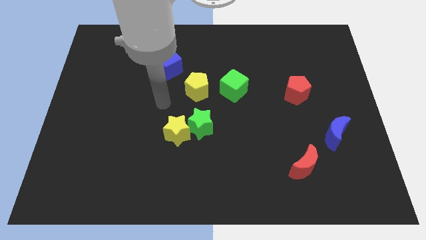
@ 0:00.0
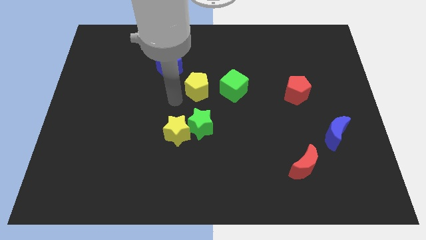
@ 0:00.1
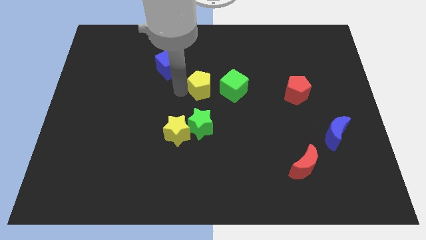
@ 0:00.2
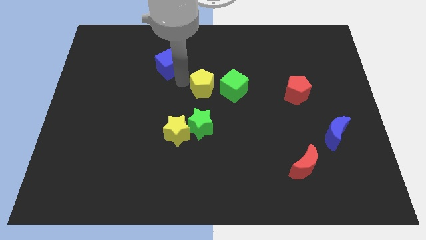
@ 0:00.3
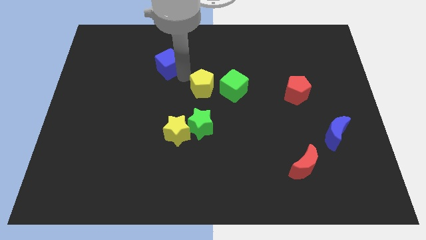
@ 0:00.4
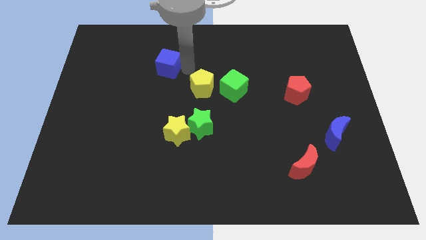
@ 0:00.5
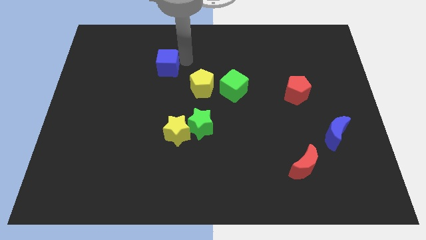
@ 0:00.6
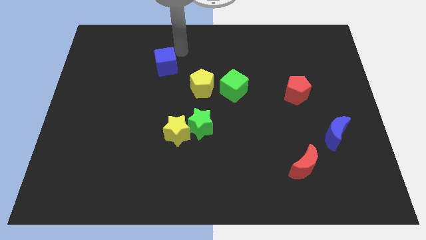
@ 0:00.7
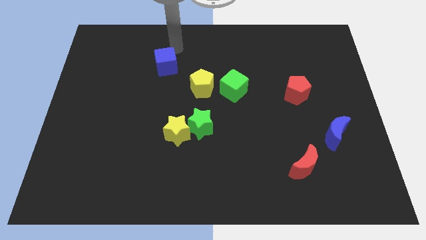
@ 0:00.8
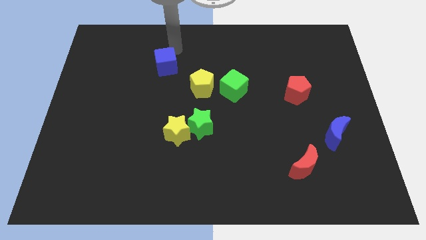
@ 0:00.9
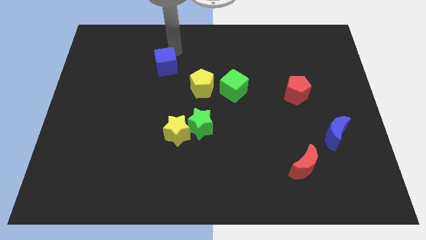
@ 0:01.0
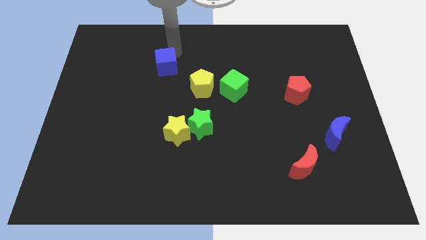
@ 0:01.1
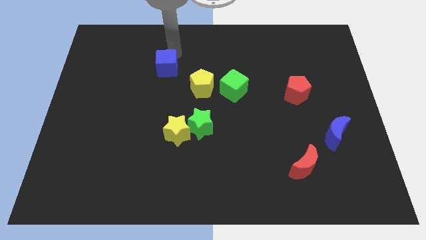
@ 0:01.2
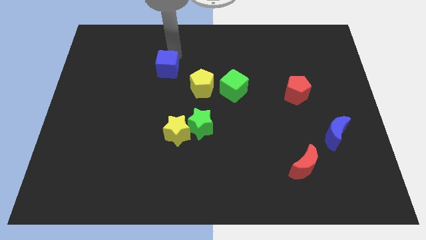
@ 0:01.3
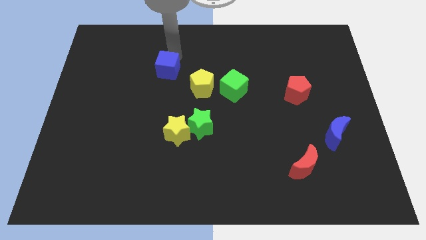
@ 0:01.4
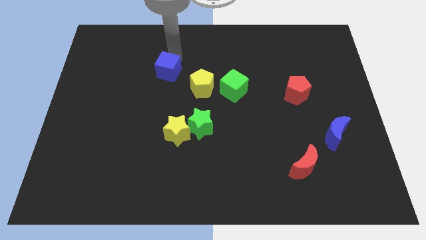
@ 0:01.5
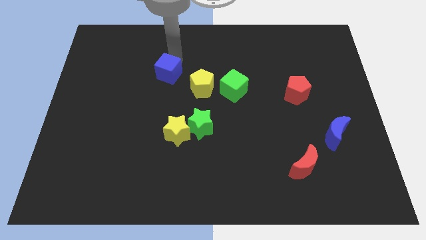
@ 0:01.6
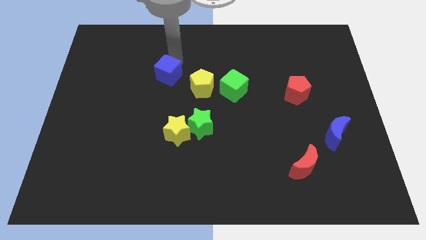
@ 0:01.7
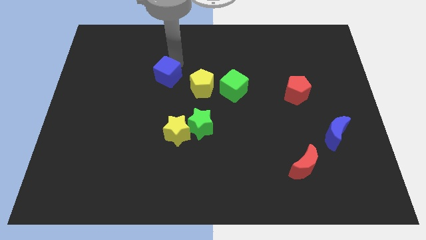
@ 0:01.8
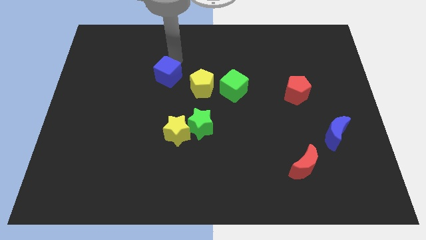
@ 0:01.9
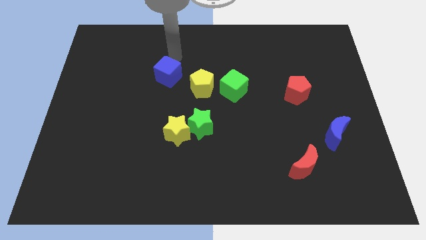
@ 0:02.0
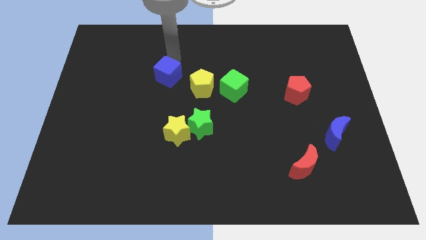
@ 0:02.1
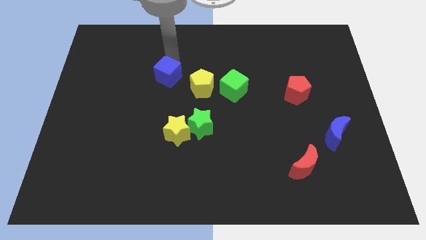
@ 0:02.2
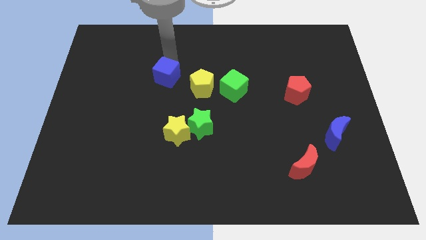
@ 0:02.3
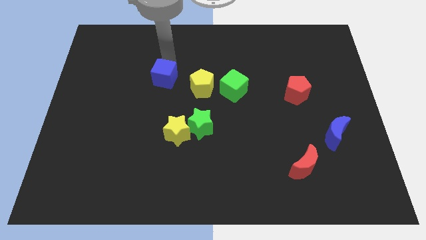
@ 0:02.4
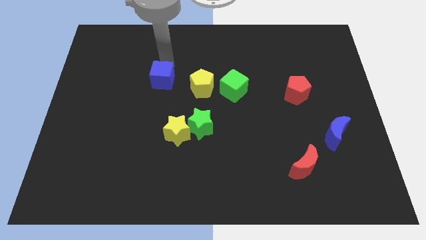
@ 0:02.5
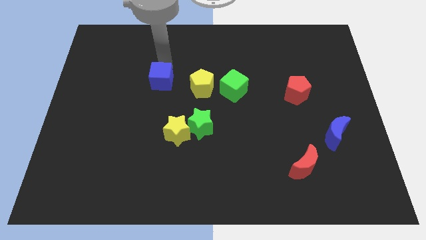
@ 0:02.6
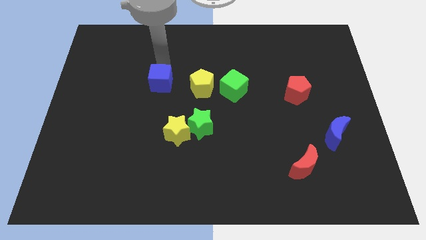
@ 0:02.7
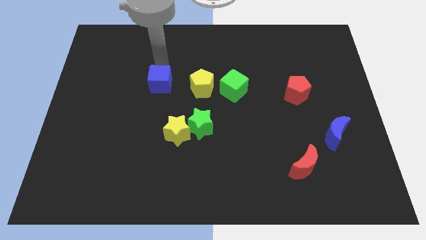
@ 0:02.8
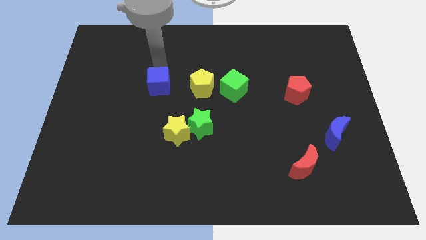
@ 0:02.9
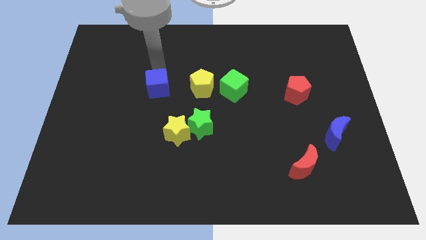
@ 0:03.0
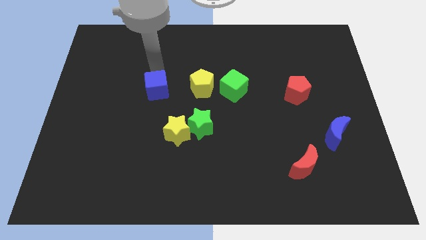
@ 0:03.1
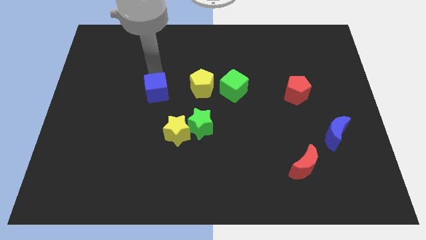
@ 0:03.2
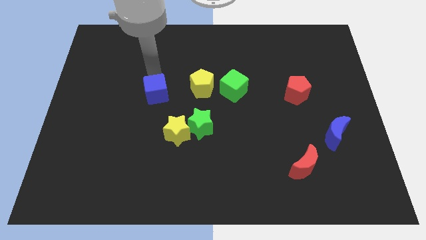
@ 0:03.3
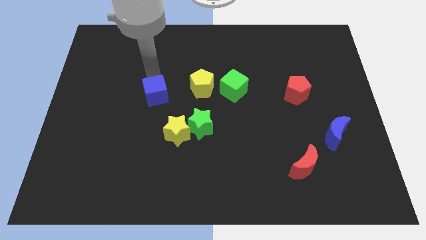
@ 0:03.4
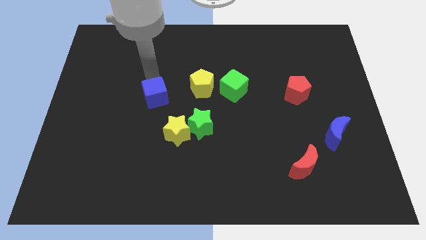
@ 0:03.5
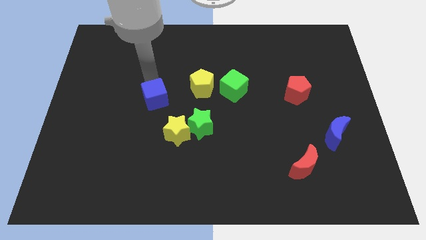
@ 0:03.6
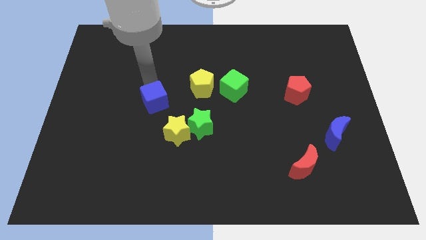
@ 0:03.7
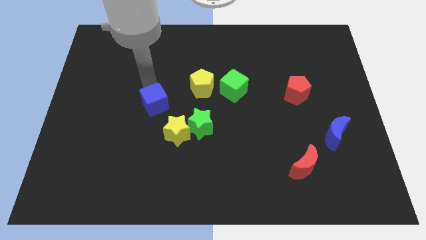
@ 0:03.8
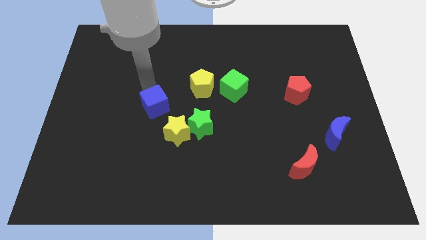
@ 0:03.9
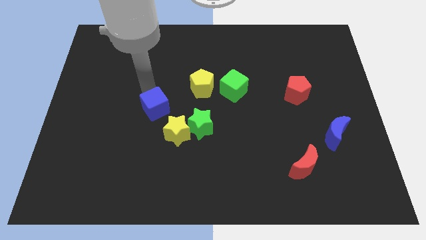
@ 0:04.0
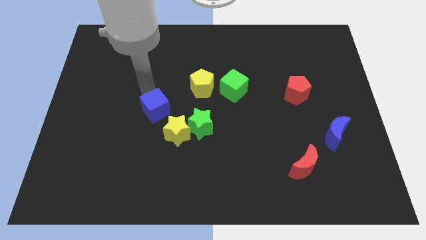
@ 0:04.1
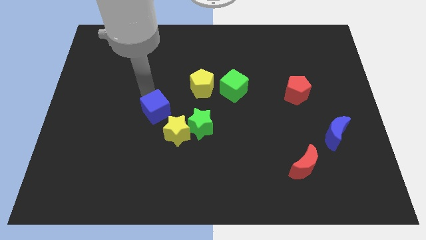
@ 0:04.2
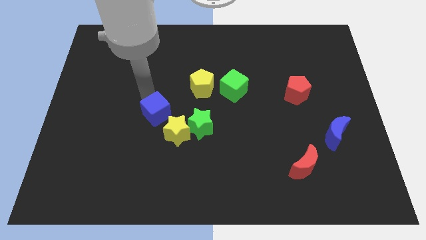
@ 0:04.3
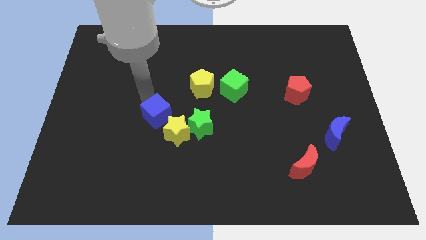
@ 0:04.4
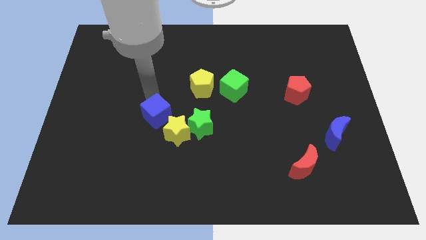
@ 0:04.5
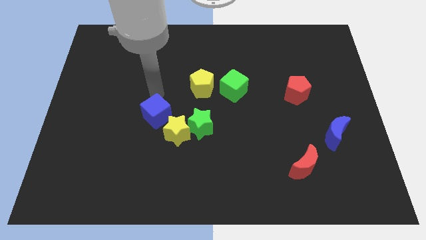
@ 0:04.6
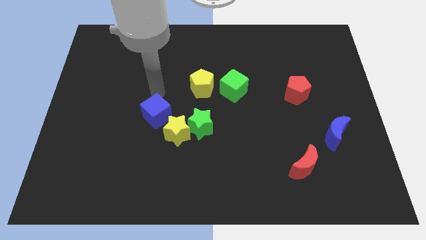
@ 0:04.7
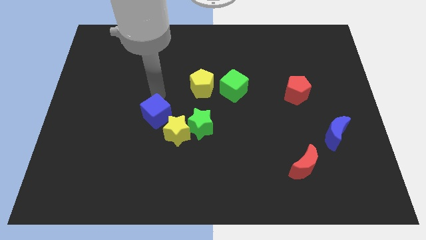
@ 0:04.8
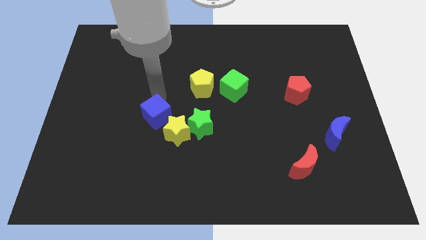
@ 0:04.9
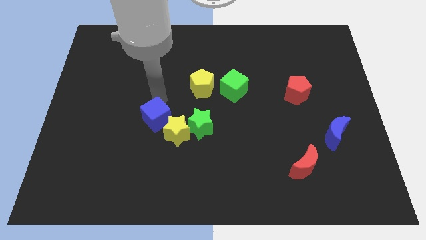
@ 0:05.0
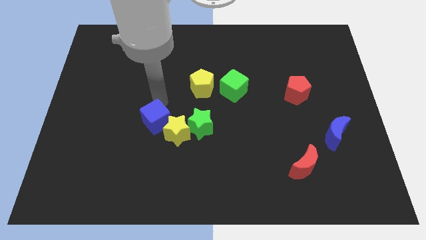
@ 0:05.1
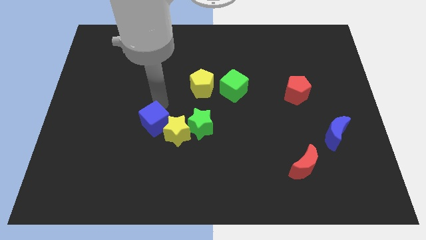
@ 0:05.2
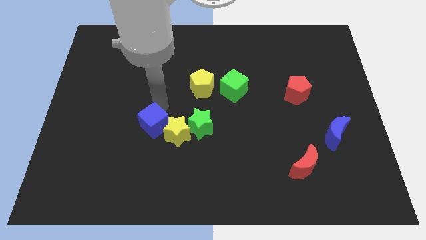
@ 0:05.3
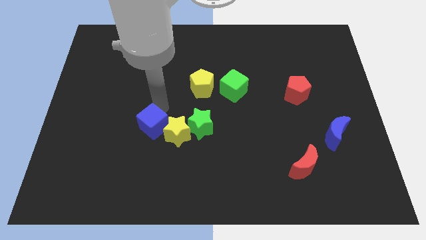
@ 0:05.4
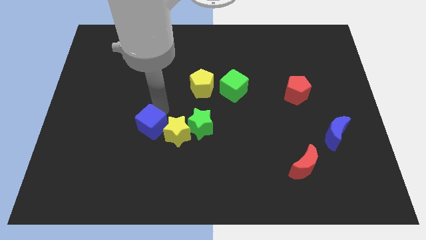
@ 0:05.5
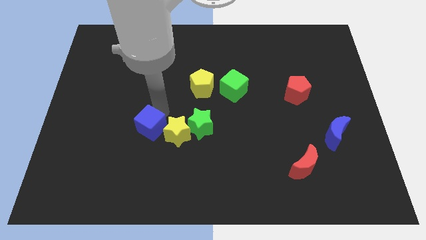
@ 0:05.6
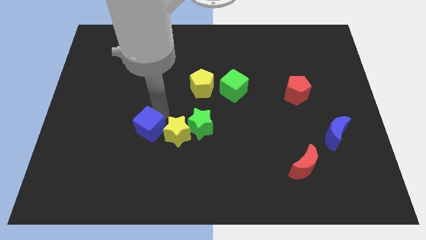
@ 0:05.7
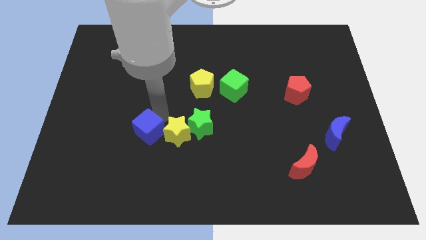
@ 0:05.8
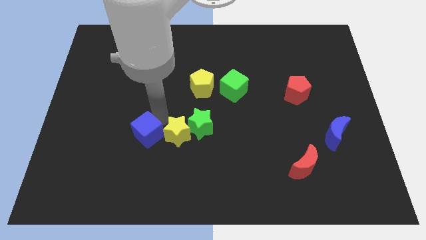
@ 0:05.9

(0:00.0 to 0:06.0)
move the blue cube downwards

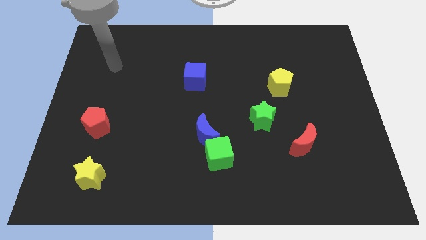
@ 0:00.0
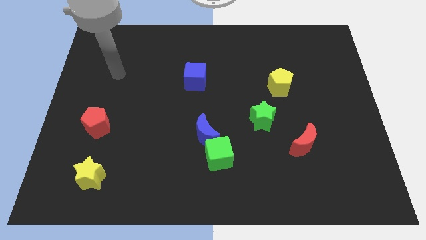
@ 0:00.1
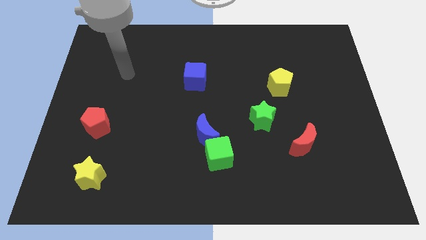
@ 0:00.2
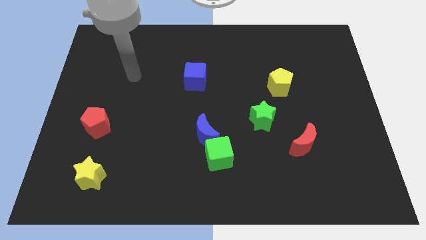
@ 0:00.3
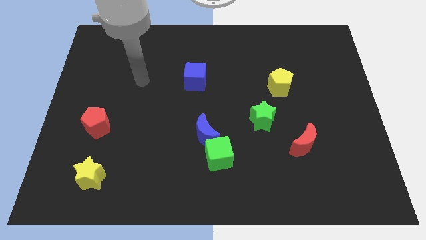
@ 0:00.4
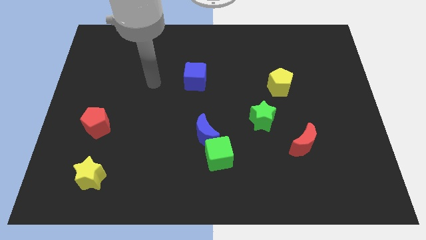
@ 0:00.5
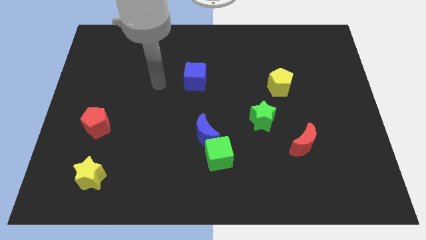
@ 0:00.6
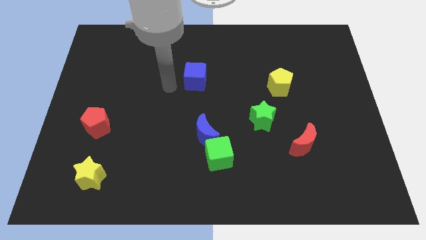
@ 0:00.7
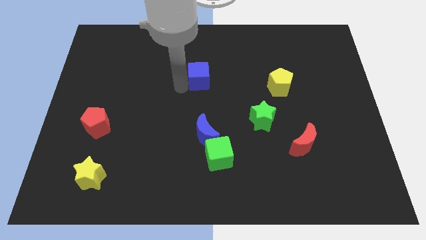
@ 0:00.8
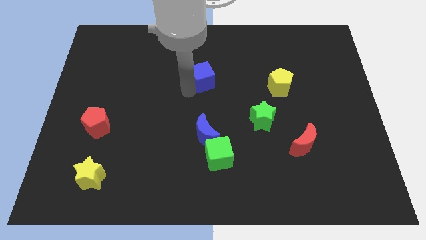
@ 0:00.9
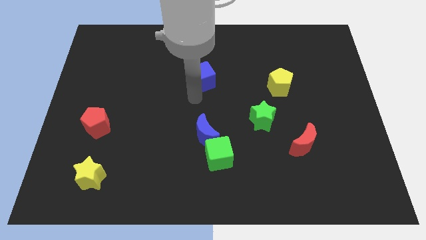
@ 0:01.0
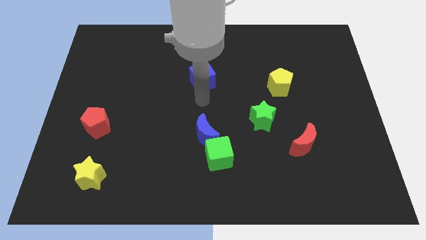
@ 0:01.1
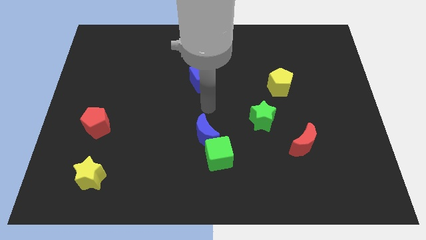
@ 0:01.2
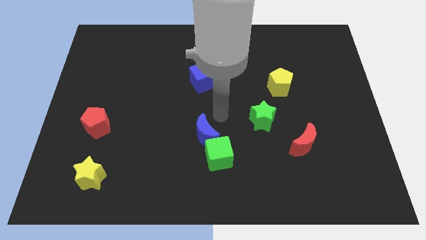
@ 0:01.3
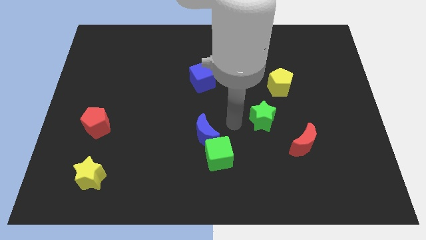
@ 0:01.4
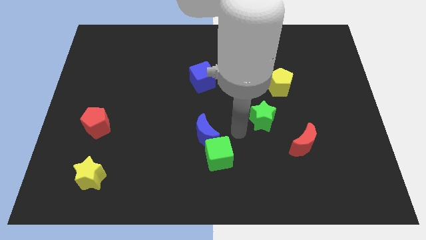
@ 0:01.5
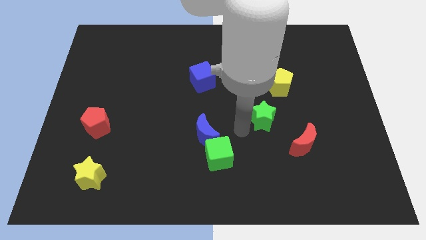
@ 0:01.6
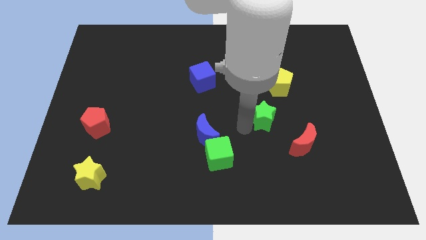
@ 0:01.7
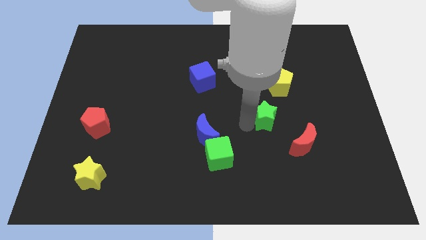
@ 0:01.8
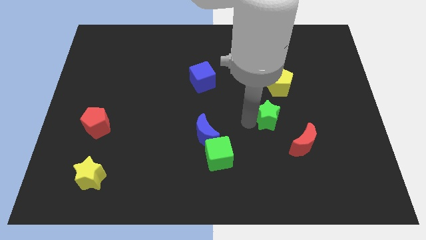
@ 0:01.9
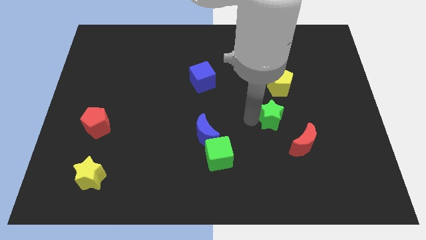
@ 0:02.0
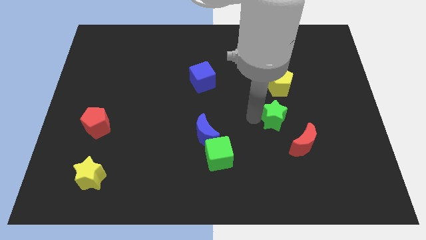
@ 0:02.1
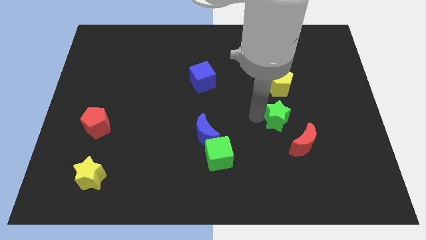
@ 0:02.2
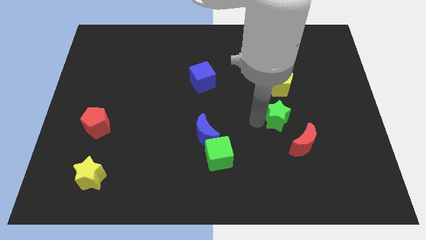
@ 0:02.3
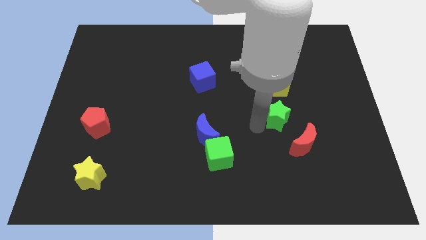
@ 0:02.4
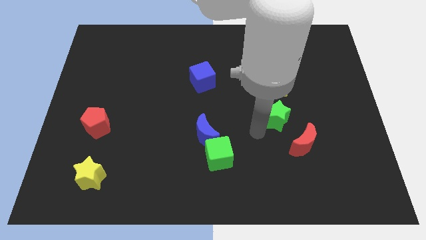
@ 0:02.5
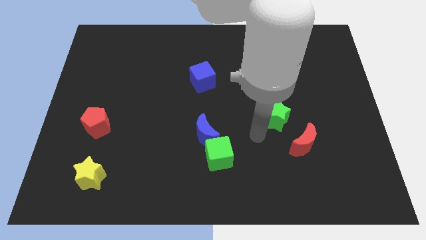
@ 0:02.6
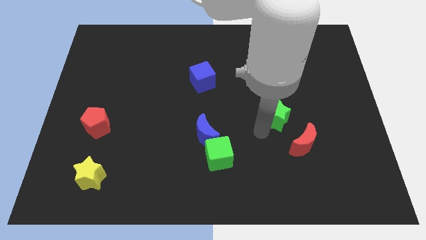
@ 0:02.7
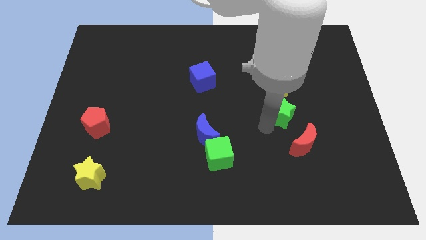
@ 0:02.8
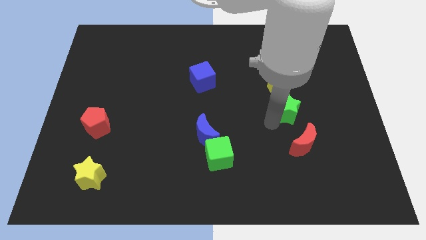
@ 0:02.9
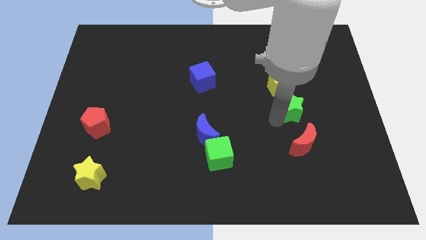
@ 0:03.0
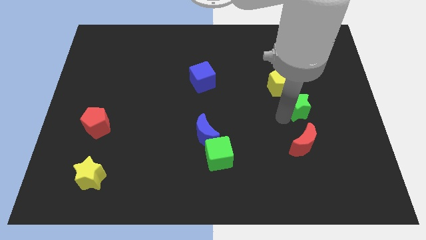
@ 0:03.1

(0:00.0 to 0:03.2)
slightly slide the green star diagonally upwards and to the right
